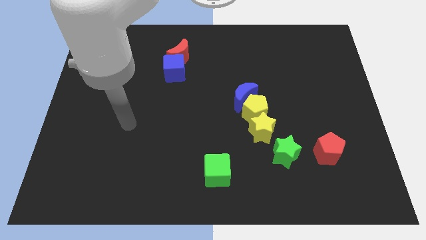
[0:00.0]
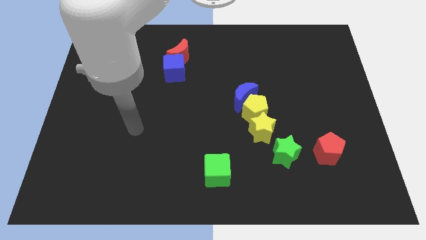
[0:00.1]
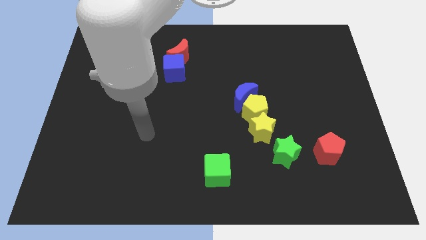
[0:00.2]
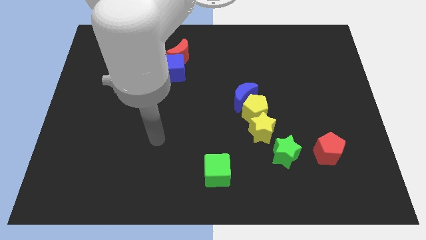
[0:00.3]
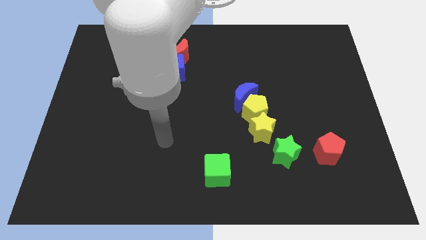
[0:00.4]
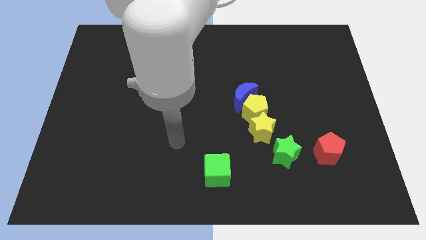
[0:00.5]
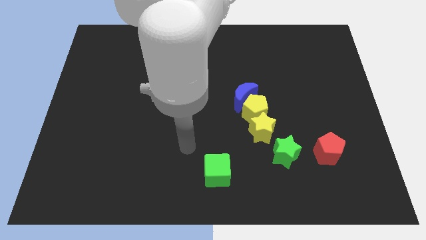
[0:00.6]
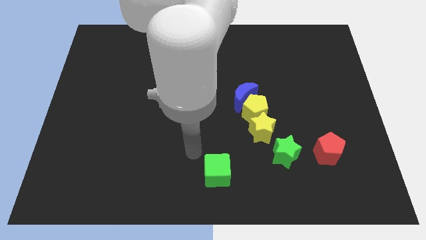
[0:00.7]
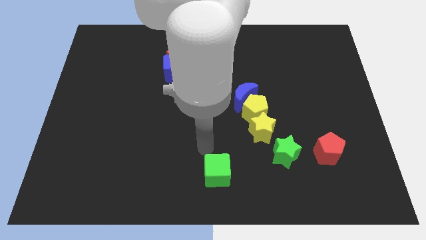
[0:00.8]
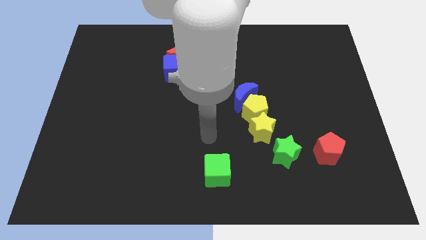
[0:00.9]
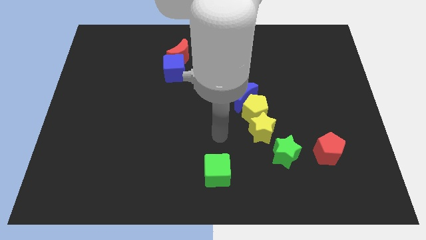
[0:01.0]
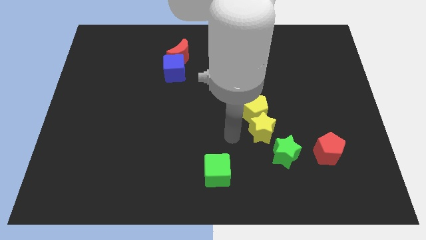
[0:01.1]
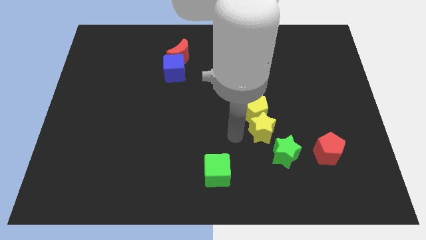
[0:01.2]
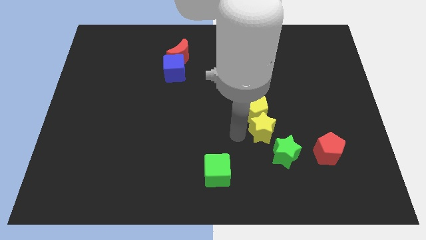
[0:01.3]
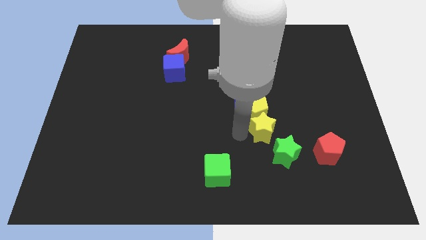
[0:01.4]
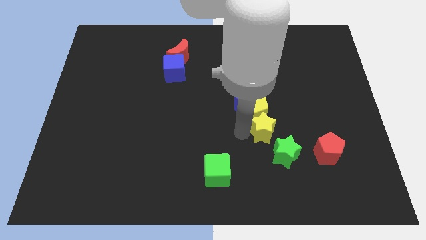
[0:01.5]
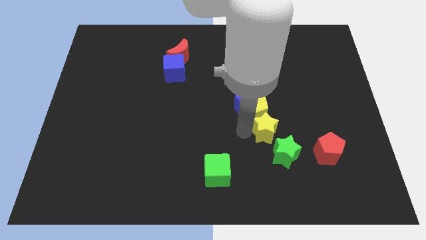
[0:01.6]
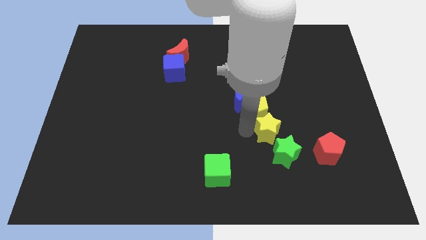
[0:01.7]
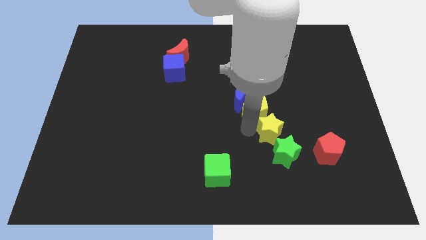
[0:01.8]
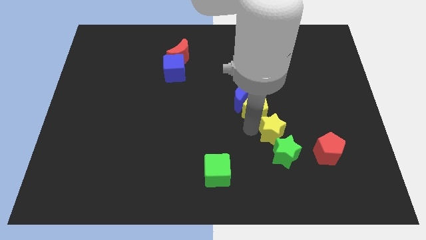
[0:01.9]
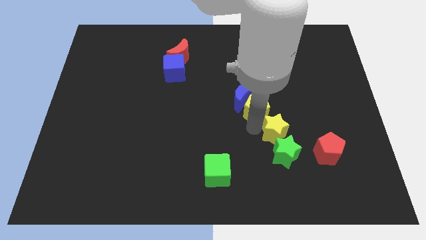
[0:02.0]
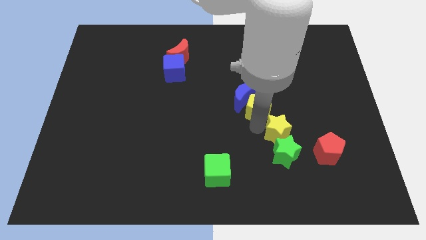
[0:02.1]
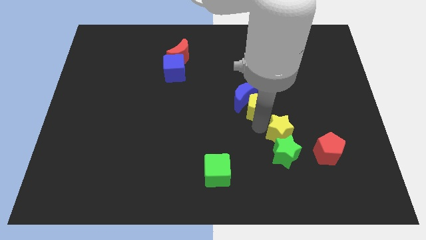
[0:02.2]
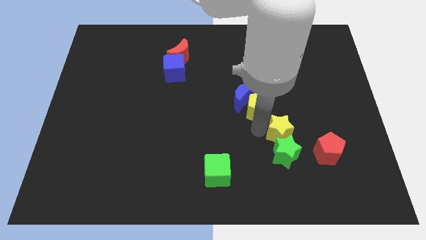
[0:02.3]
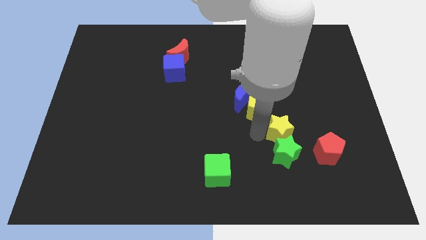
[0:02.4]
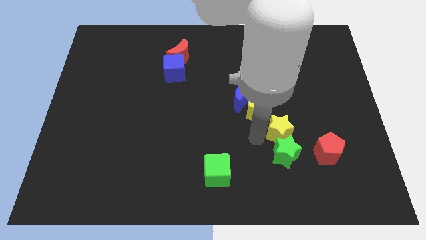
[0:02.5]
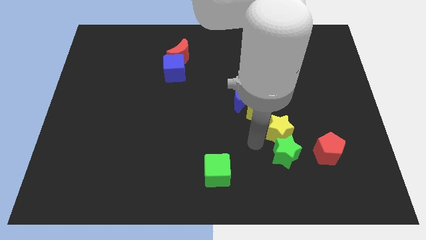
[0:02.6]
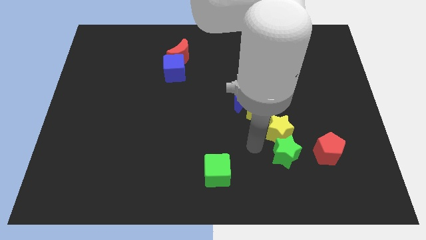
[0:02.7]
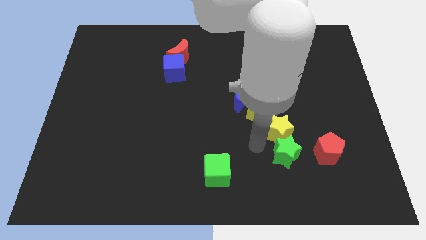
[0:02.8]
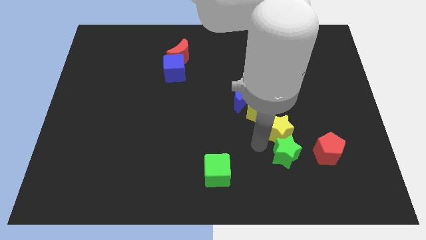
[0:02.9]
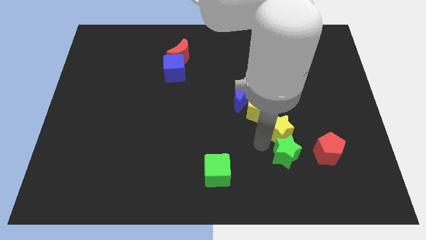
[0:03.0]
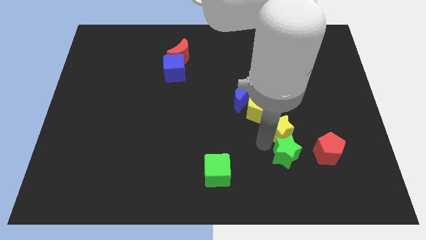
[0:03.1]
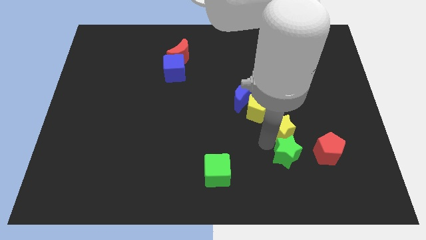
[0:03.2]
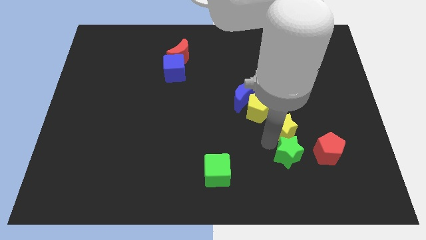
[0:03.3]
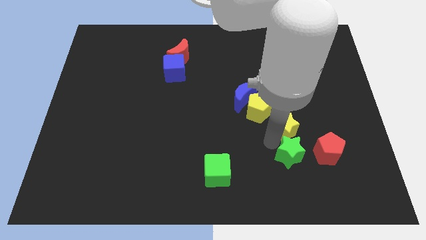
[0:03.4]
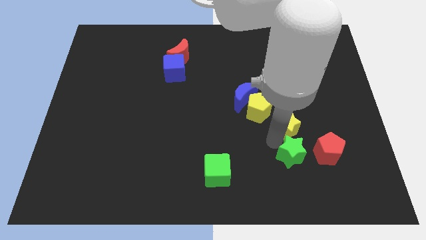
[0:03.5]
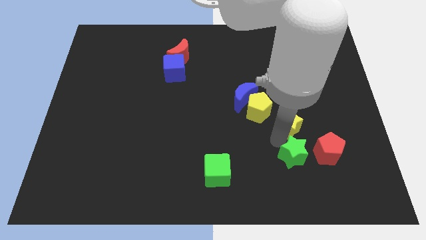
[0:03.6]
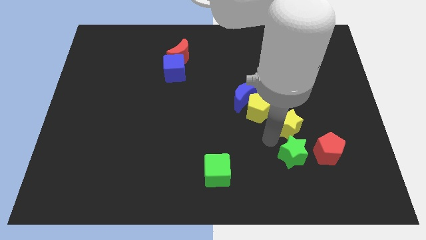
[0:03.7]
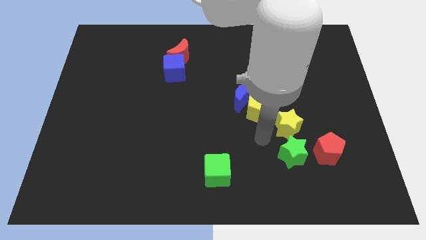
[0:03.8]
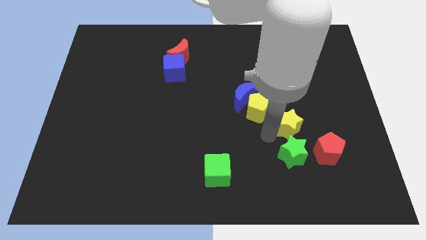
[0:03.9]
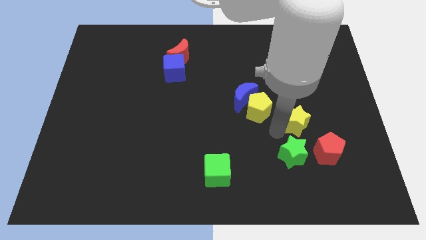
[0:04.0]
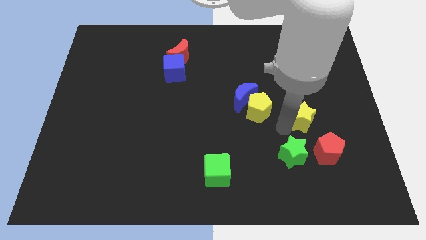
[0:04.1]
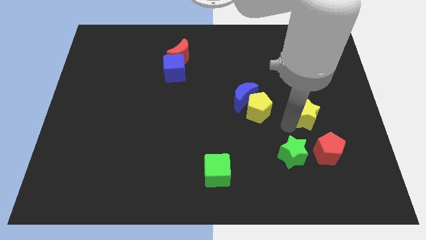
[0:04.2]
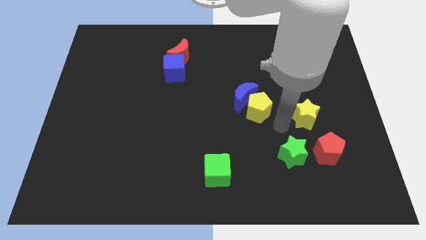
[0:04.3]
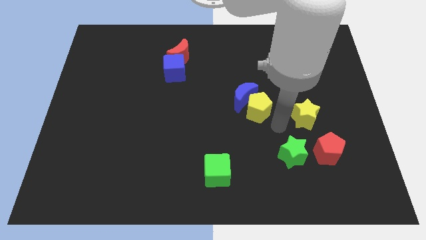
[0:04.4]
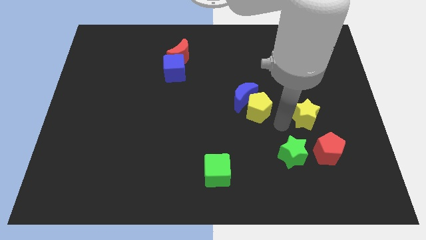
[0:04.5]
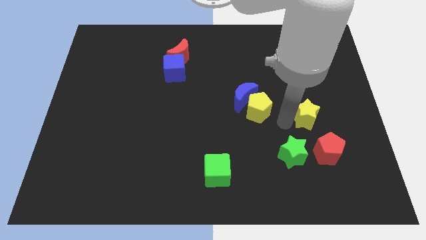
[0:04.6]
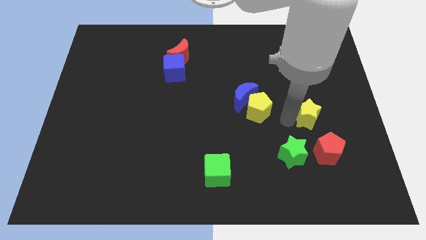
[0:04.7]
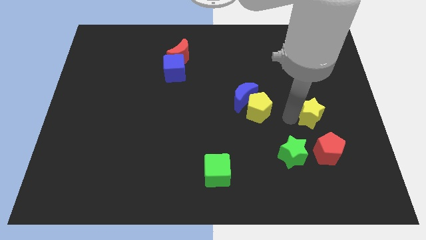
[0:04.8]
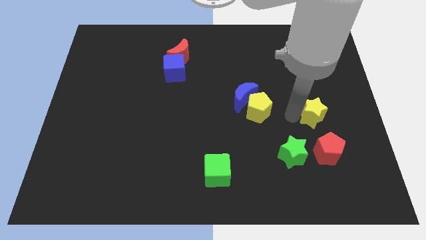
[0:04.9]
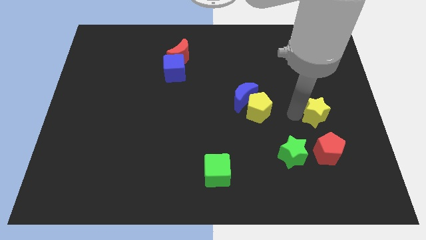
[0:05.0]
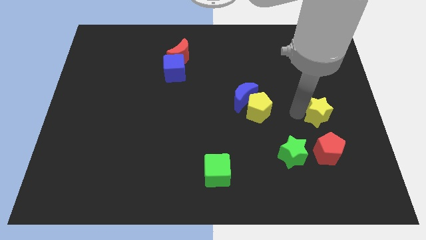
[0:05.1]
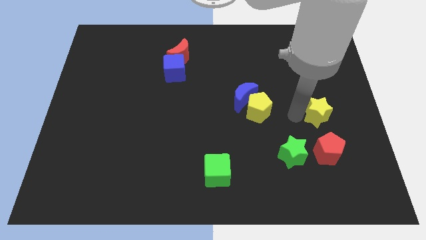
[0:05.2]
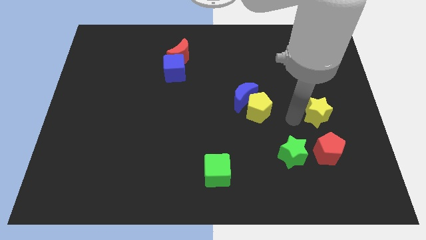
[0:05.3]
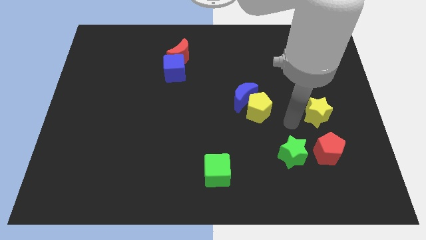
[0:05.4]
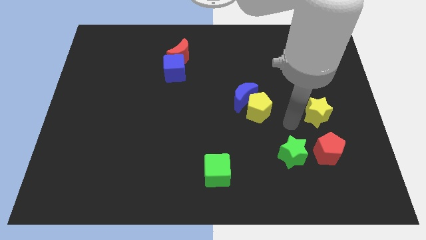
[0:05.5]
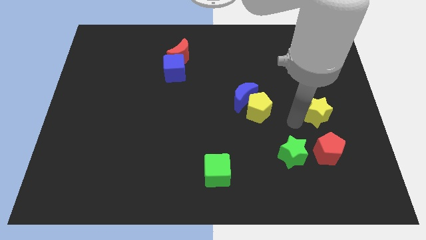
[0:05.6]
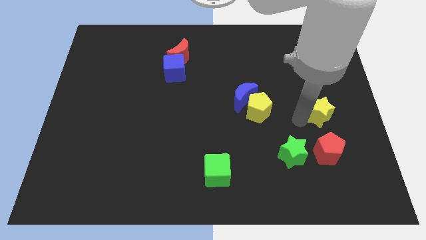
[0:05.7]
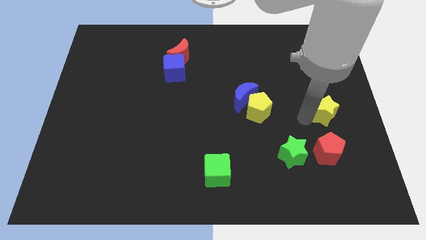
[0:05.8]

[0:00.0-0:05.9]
slide the yellow star to the right side

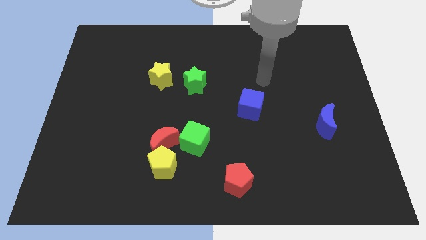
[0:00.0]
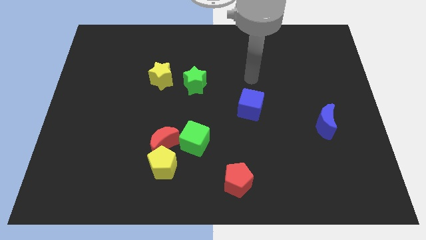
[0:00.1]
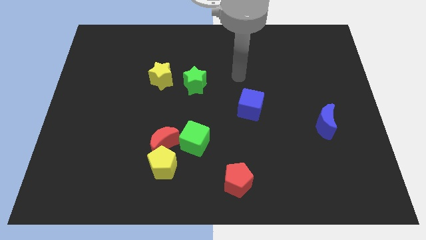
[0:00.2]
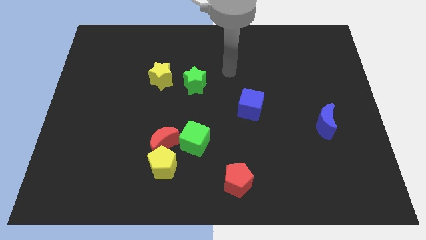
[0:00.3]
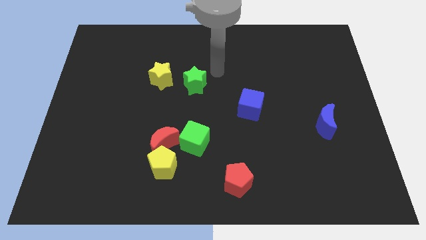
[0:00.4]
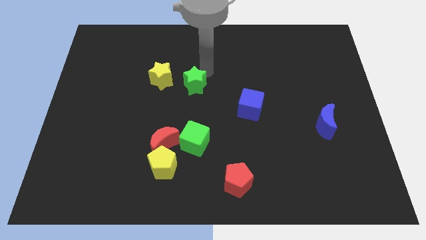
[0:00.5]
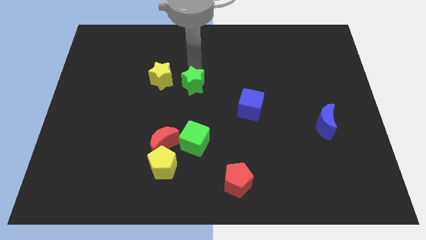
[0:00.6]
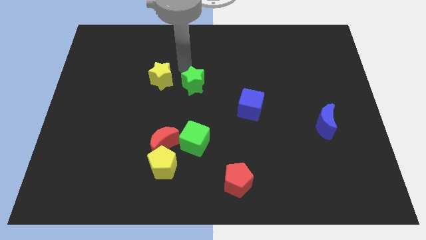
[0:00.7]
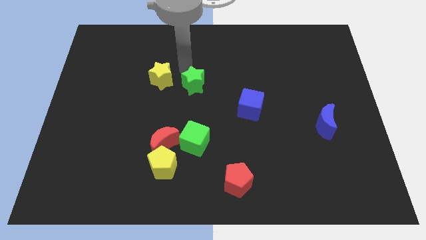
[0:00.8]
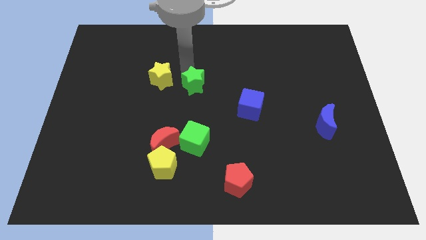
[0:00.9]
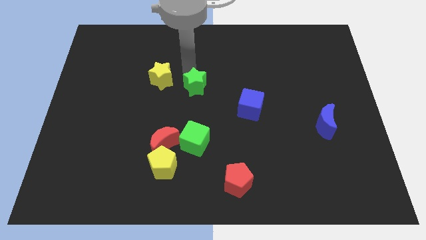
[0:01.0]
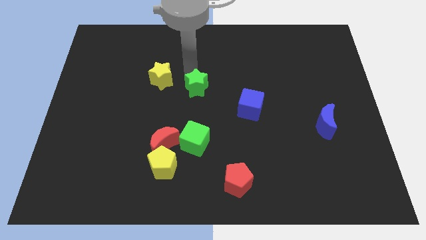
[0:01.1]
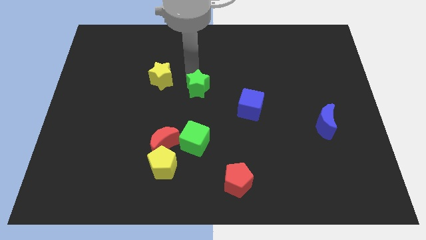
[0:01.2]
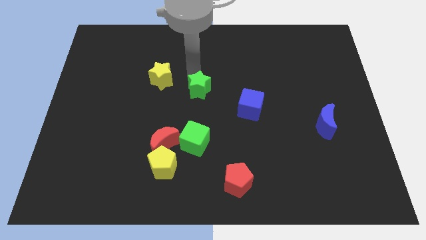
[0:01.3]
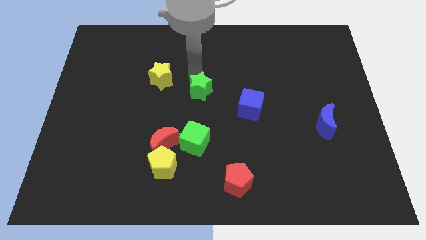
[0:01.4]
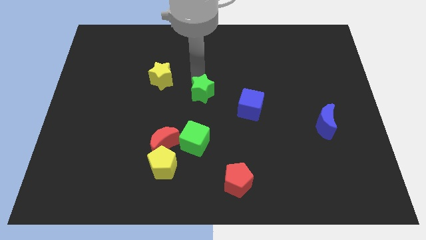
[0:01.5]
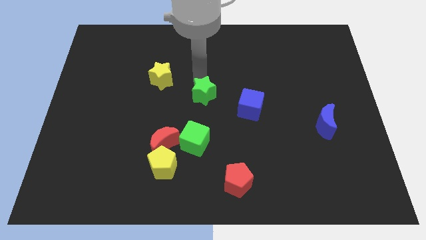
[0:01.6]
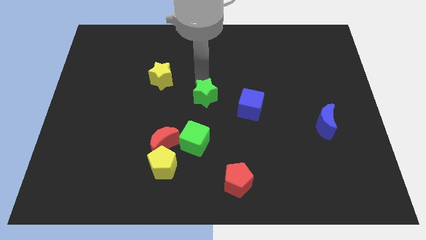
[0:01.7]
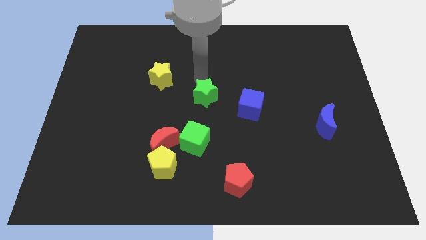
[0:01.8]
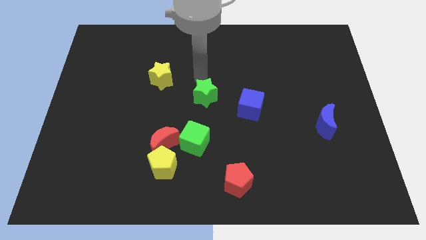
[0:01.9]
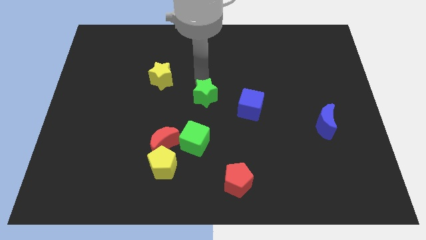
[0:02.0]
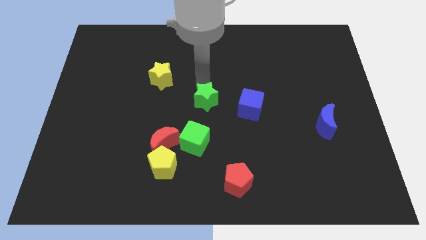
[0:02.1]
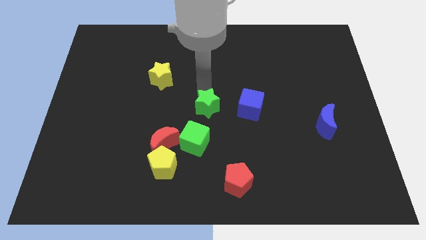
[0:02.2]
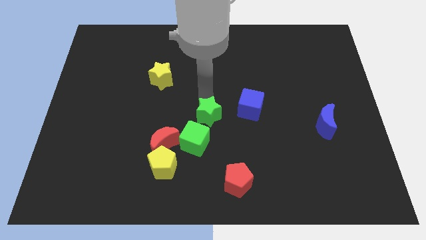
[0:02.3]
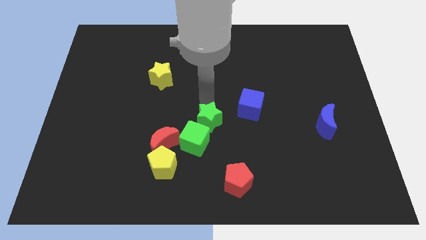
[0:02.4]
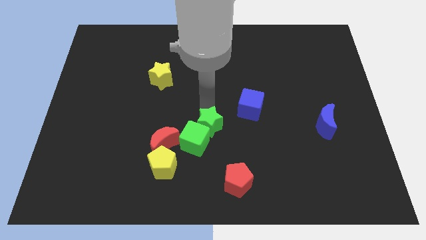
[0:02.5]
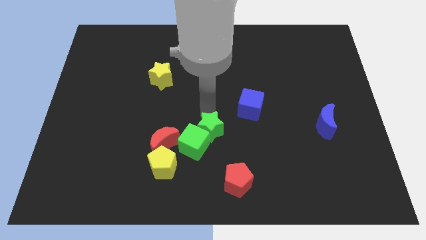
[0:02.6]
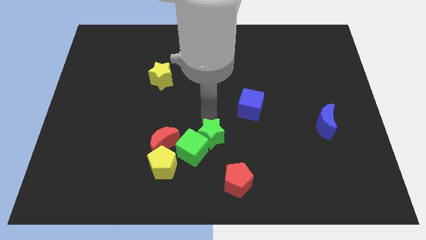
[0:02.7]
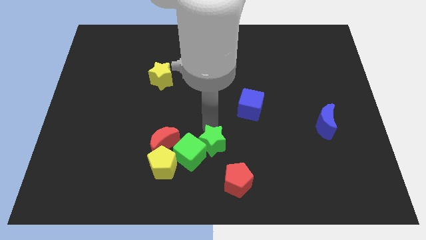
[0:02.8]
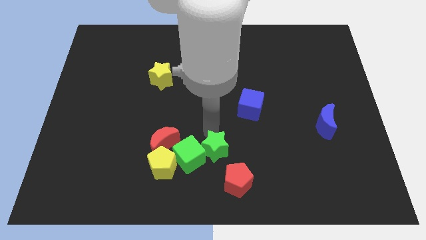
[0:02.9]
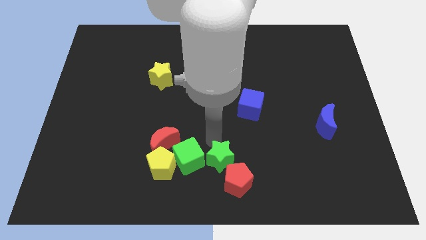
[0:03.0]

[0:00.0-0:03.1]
push the green star to the bottom side
